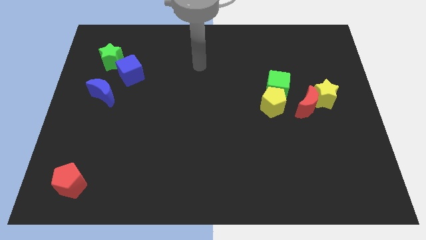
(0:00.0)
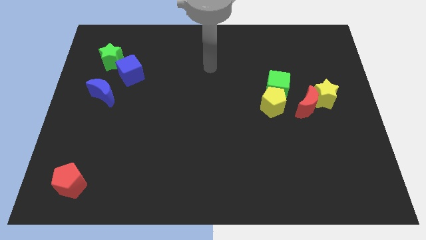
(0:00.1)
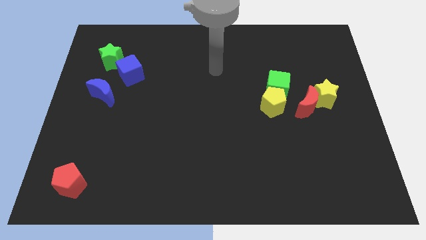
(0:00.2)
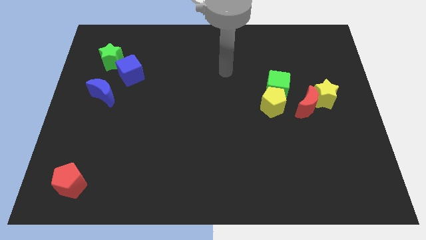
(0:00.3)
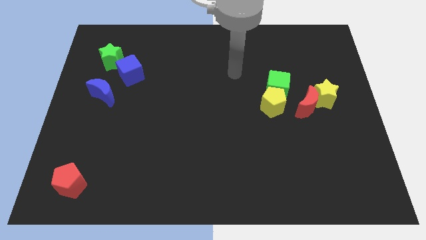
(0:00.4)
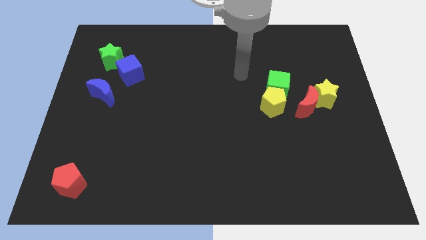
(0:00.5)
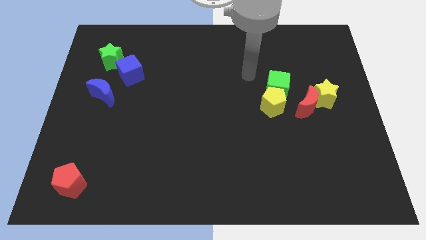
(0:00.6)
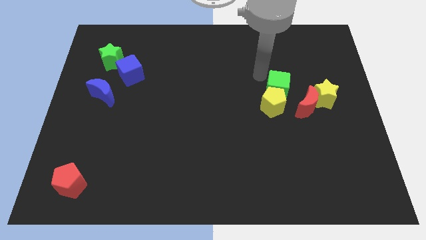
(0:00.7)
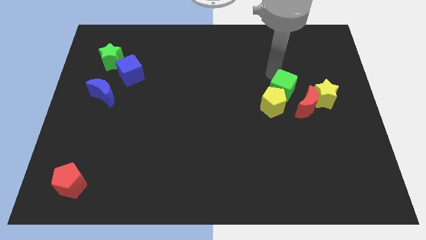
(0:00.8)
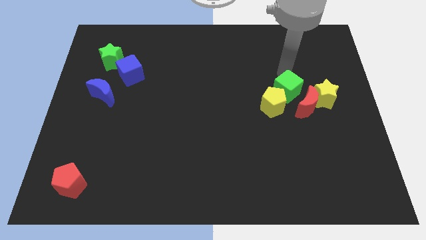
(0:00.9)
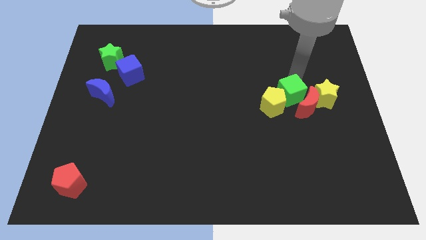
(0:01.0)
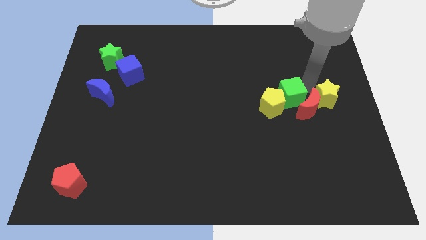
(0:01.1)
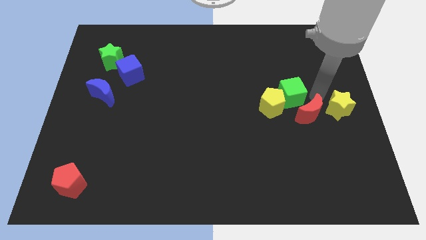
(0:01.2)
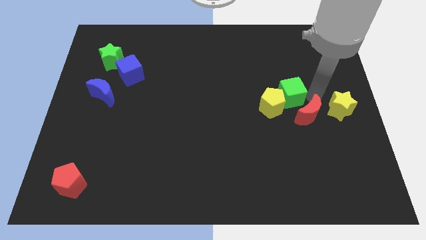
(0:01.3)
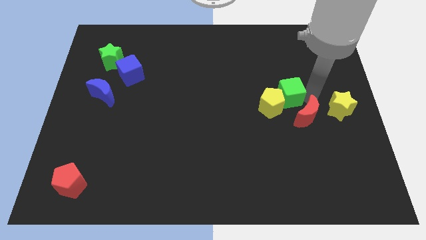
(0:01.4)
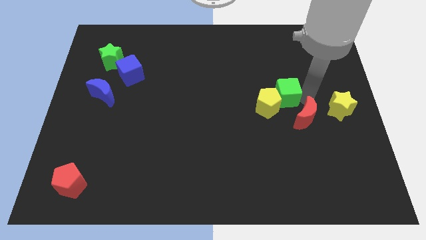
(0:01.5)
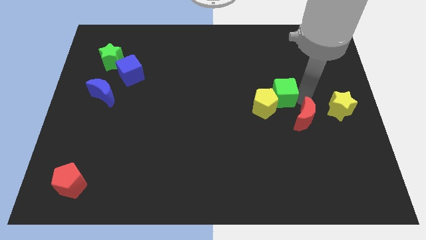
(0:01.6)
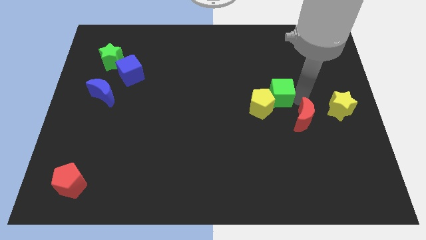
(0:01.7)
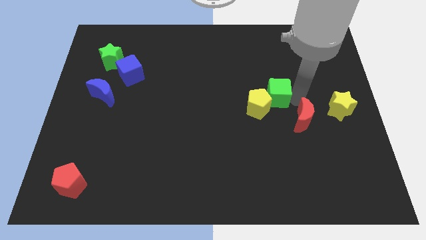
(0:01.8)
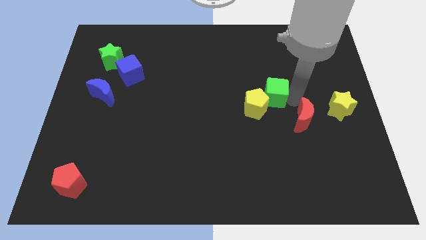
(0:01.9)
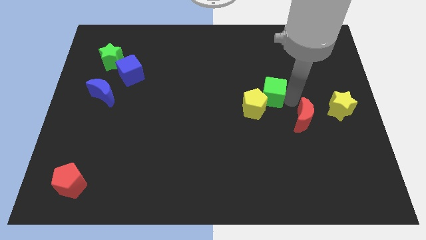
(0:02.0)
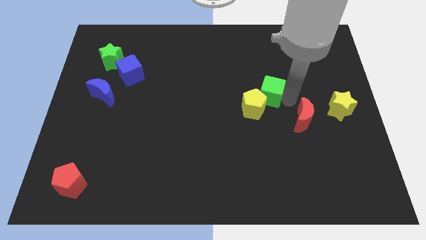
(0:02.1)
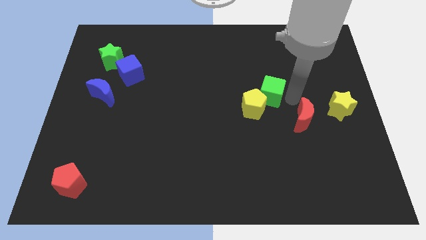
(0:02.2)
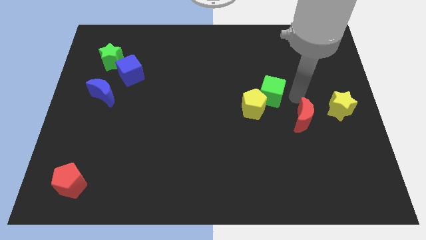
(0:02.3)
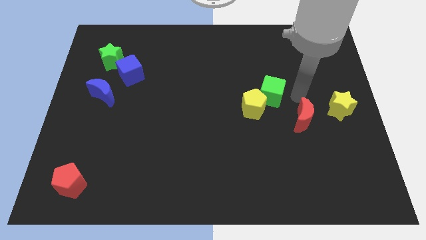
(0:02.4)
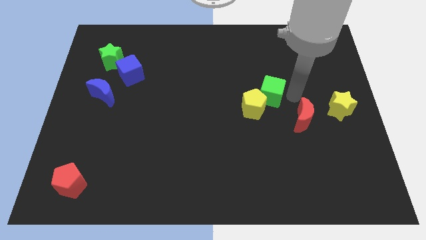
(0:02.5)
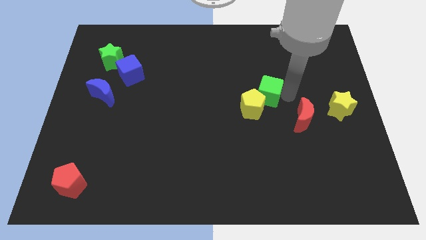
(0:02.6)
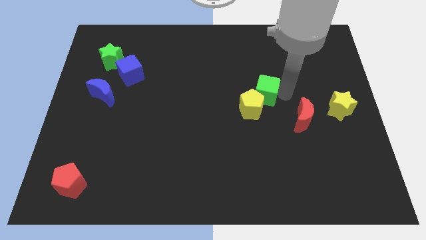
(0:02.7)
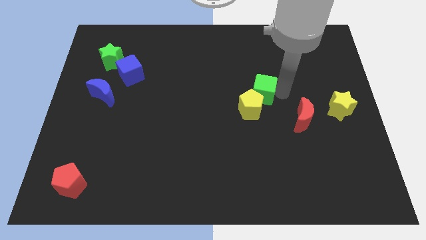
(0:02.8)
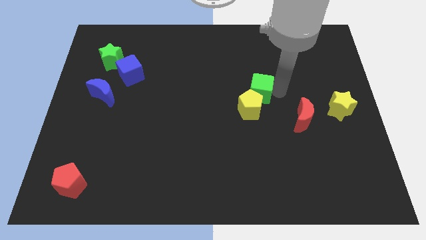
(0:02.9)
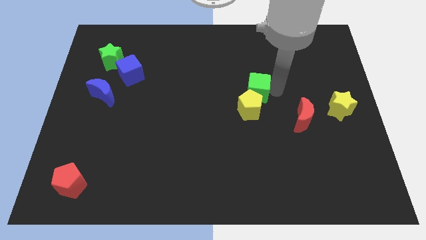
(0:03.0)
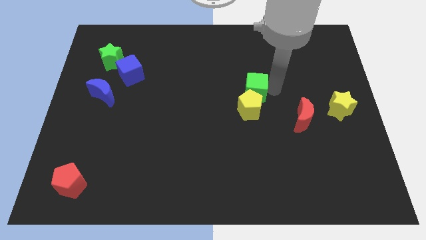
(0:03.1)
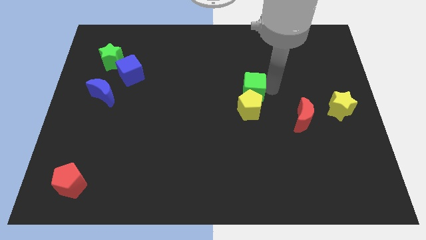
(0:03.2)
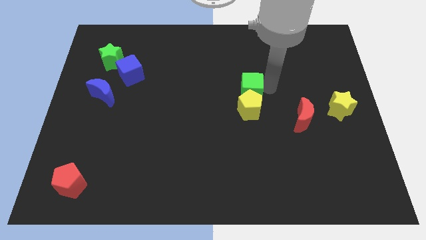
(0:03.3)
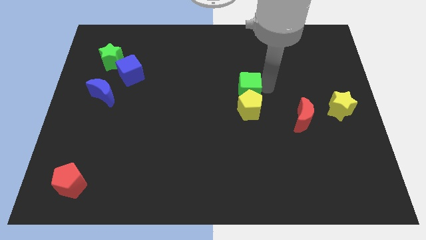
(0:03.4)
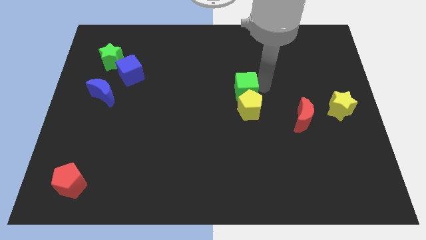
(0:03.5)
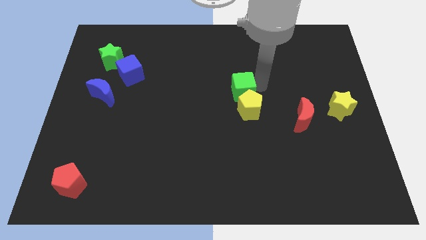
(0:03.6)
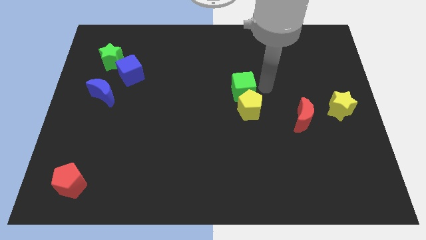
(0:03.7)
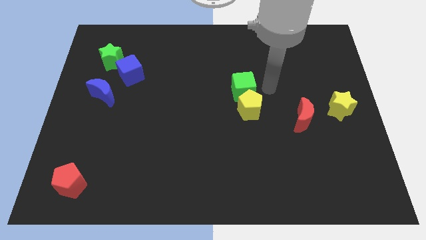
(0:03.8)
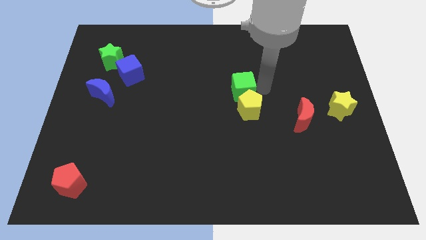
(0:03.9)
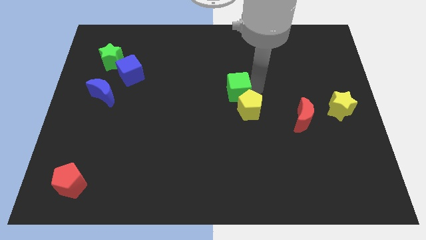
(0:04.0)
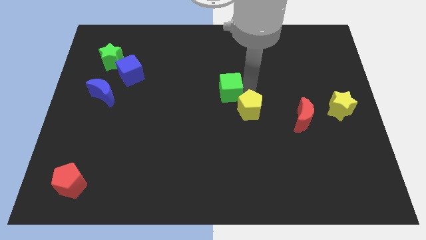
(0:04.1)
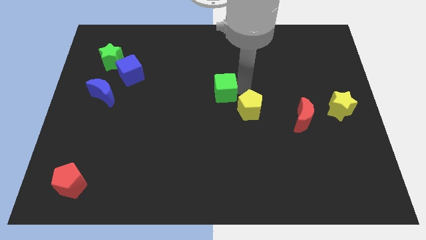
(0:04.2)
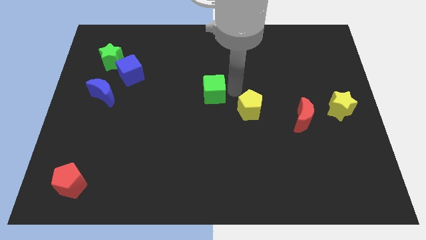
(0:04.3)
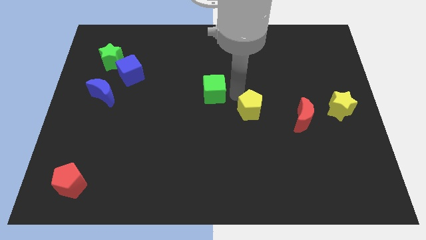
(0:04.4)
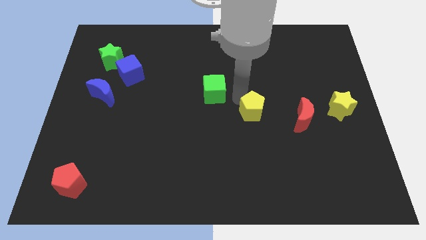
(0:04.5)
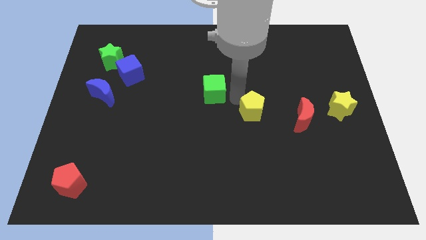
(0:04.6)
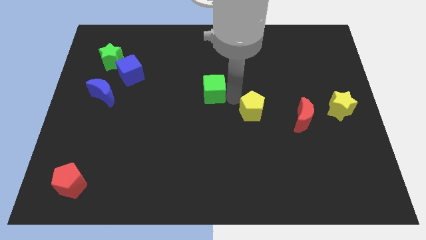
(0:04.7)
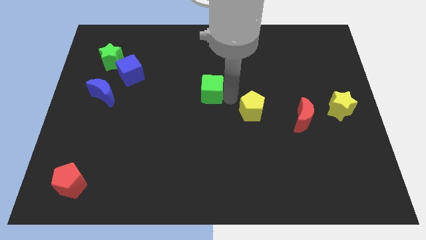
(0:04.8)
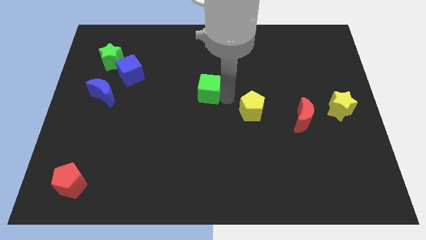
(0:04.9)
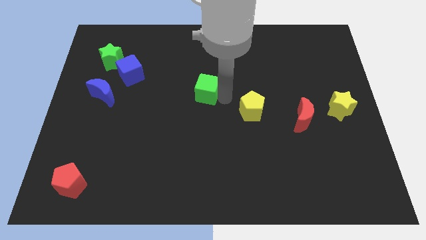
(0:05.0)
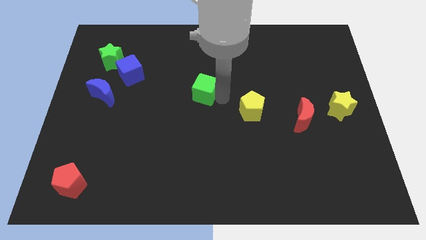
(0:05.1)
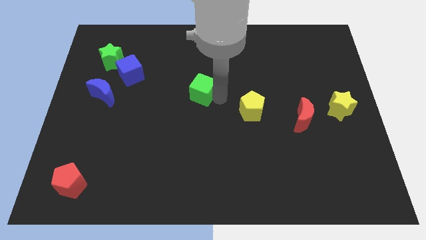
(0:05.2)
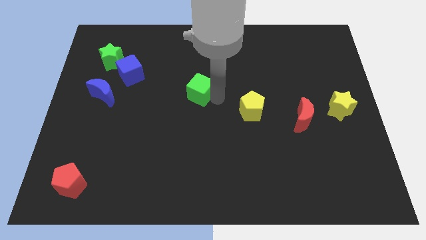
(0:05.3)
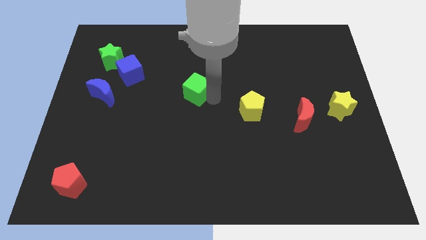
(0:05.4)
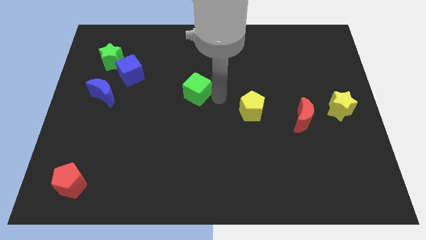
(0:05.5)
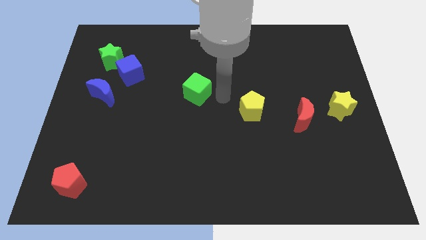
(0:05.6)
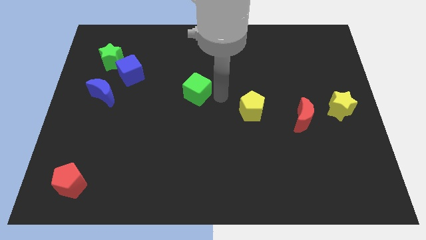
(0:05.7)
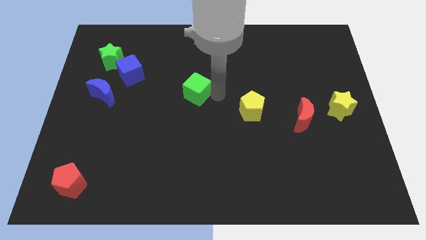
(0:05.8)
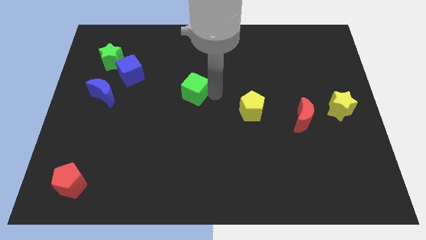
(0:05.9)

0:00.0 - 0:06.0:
slide the green cube to the left

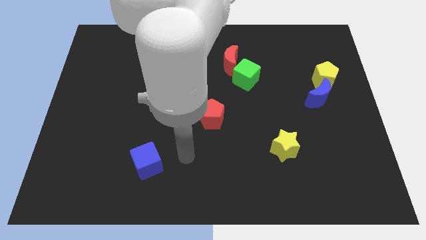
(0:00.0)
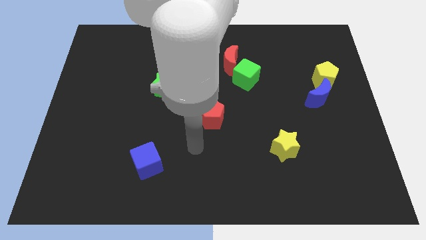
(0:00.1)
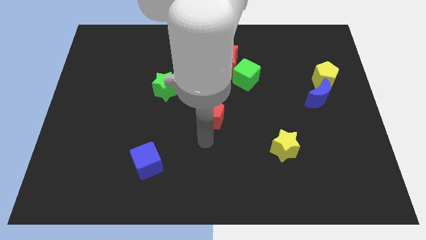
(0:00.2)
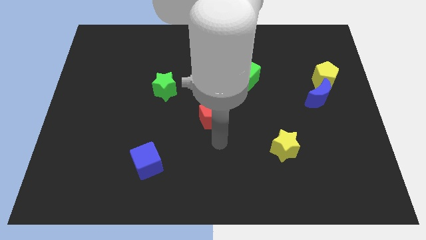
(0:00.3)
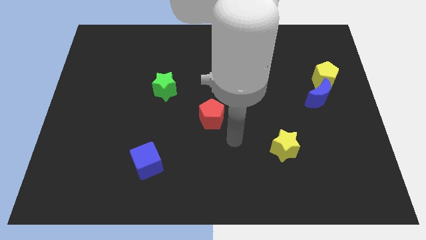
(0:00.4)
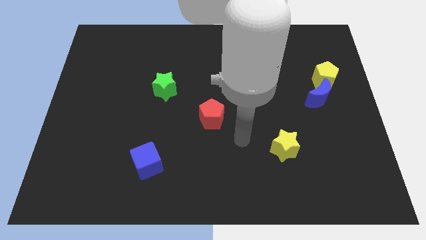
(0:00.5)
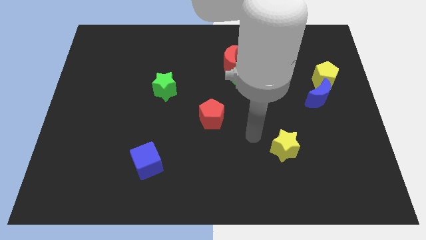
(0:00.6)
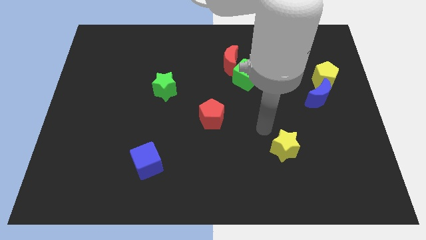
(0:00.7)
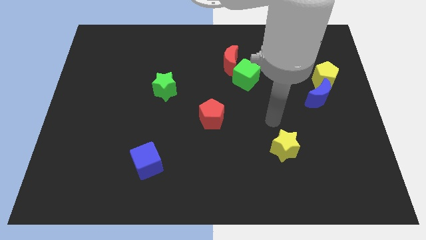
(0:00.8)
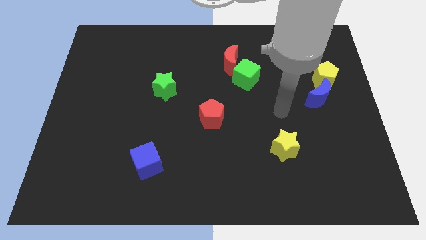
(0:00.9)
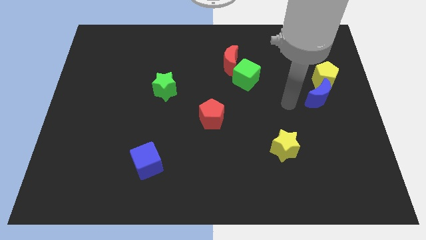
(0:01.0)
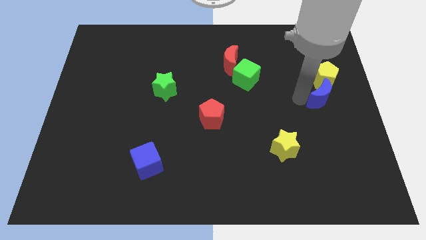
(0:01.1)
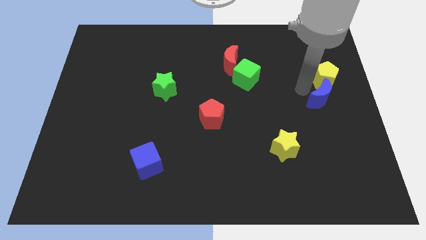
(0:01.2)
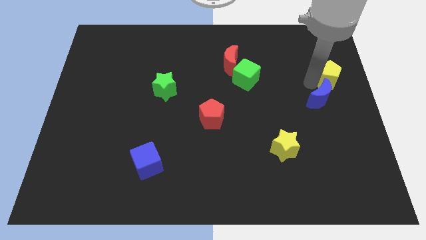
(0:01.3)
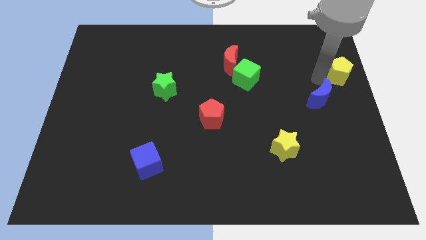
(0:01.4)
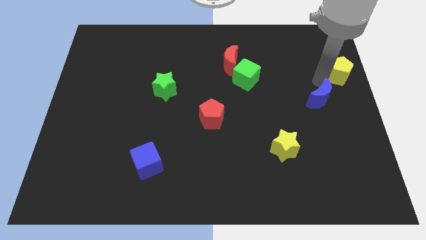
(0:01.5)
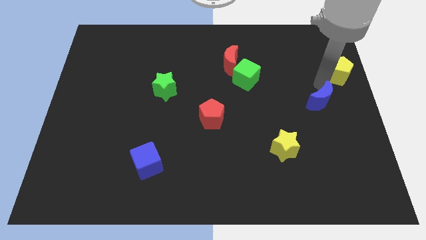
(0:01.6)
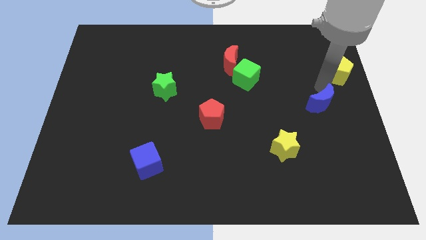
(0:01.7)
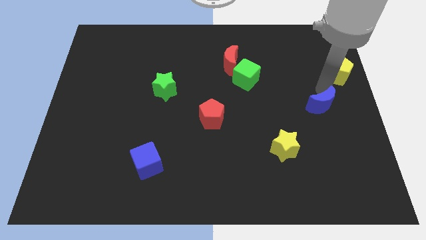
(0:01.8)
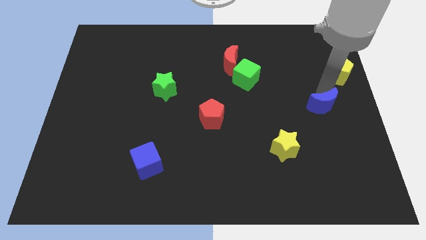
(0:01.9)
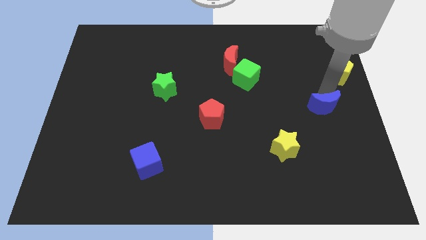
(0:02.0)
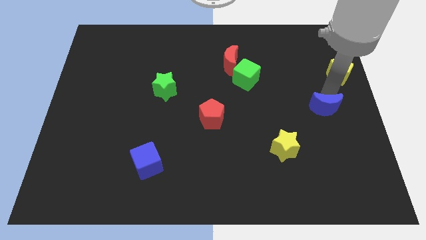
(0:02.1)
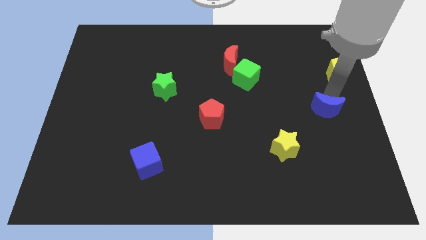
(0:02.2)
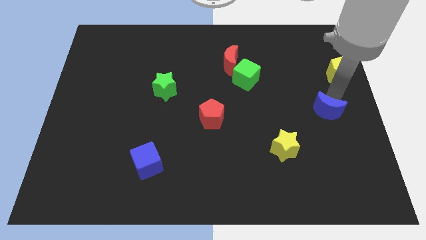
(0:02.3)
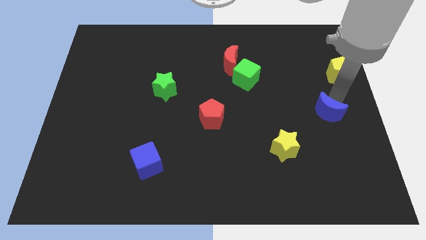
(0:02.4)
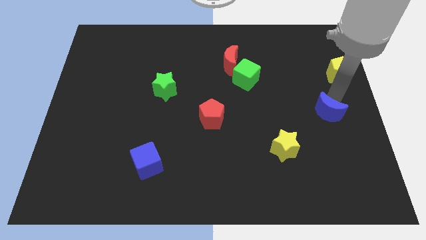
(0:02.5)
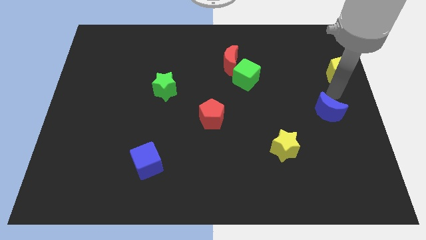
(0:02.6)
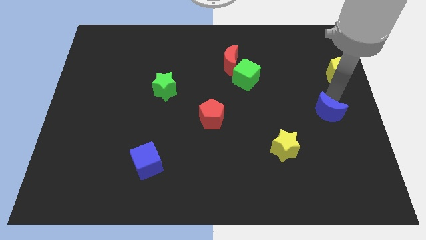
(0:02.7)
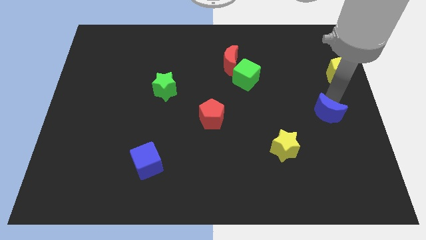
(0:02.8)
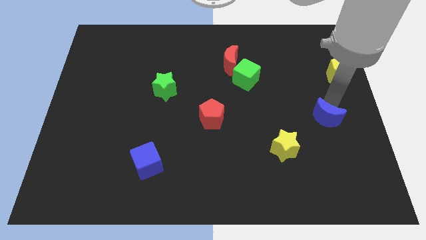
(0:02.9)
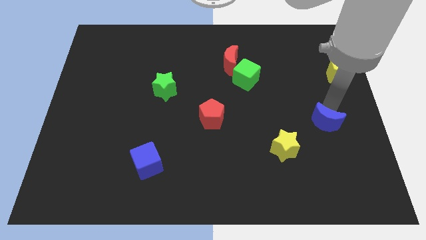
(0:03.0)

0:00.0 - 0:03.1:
slightly push the blue moon downwards
